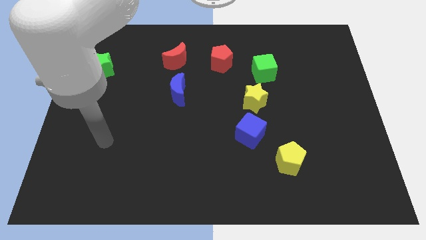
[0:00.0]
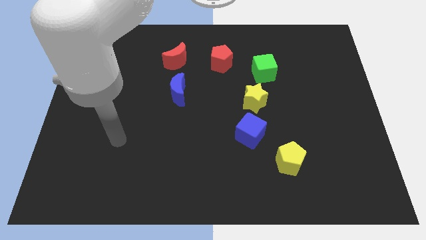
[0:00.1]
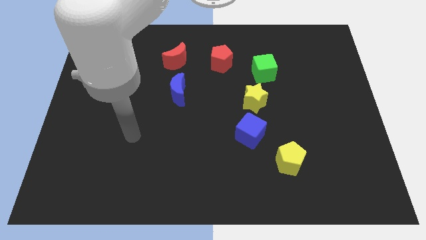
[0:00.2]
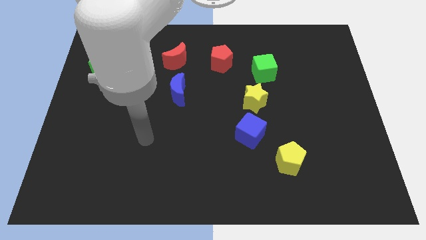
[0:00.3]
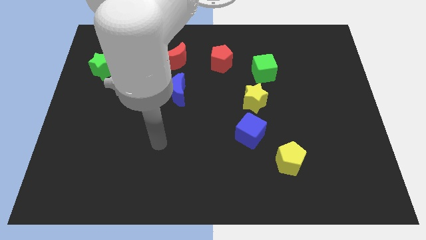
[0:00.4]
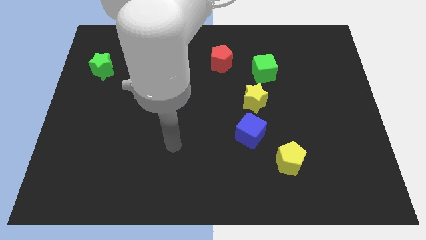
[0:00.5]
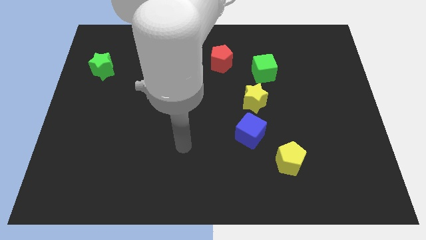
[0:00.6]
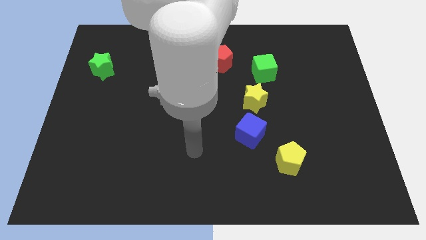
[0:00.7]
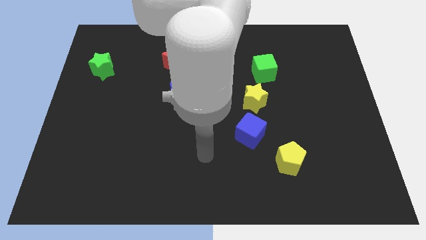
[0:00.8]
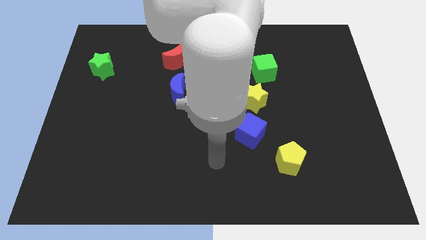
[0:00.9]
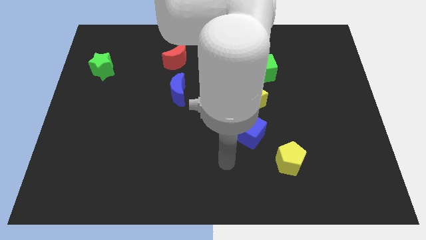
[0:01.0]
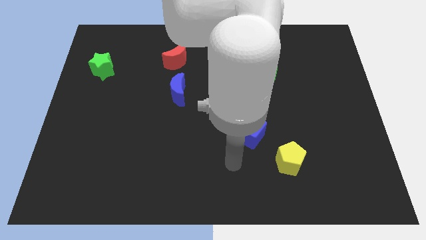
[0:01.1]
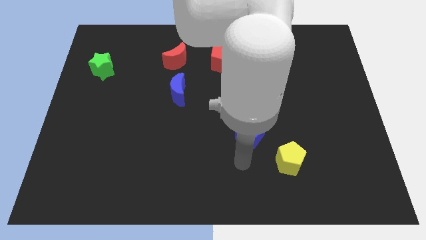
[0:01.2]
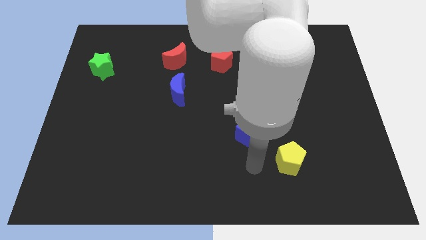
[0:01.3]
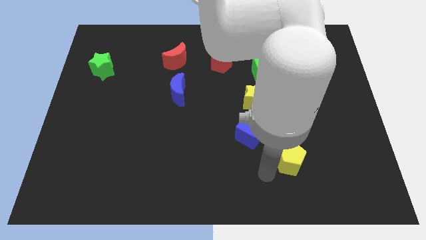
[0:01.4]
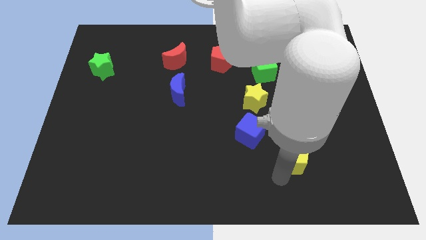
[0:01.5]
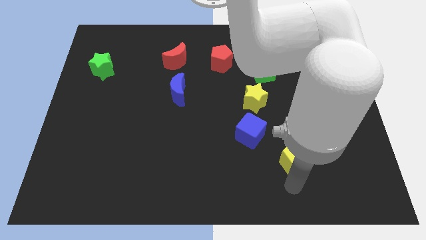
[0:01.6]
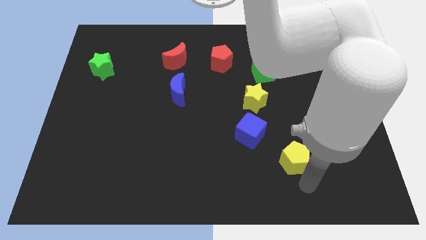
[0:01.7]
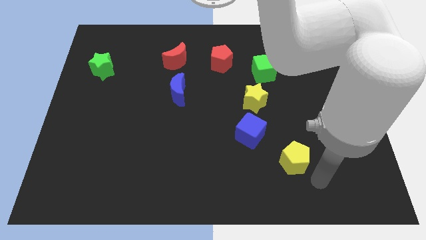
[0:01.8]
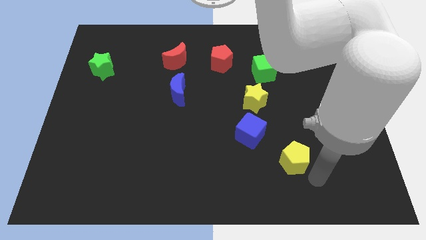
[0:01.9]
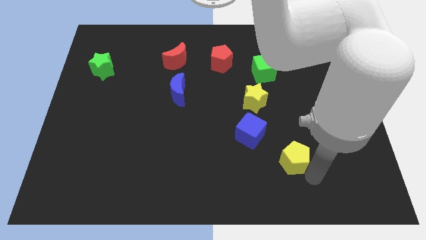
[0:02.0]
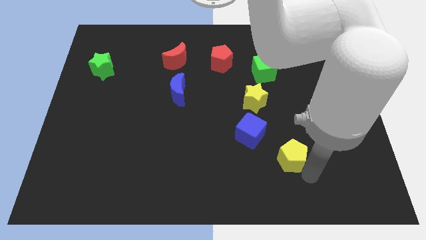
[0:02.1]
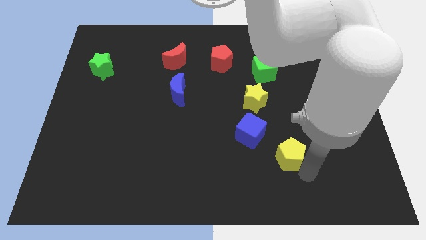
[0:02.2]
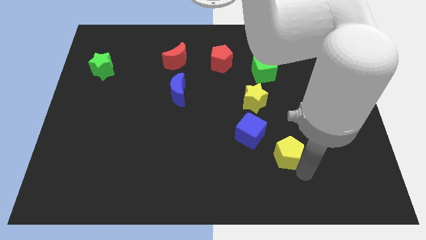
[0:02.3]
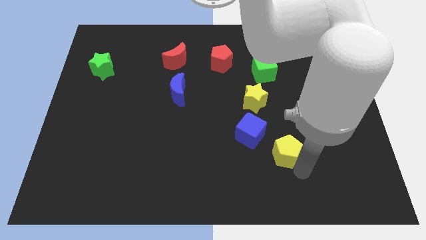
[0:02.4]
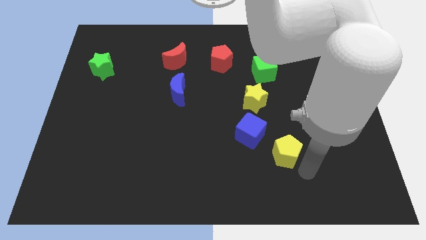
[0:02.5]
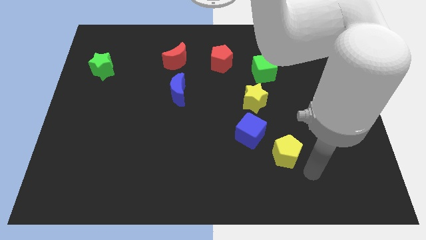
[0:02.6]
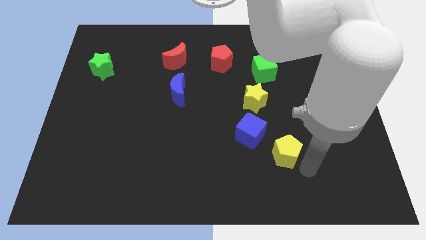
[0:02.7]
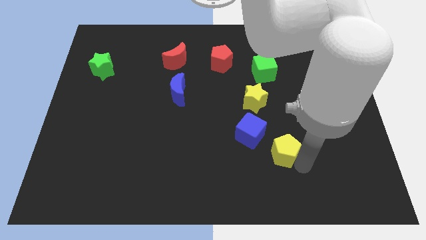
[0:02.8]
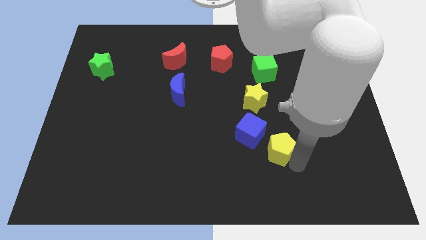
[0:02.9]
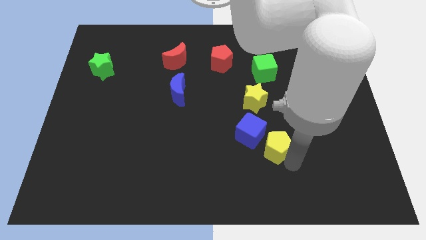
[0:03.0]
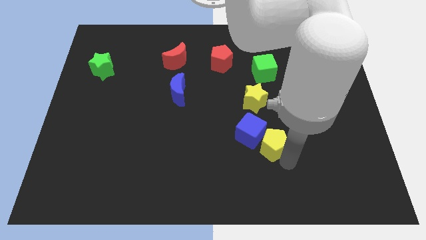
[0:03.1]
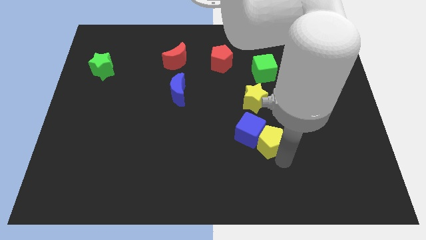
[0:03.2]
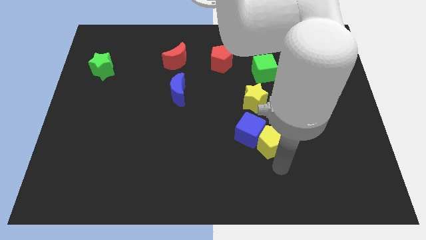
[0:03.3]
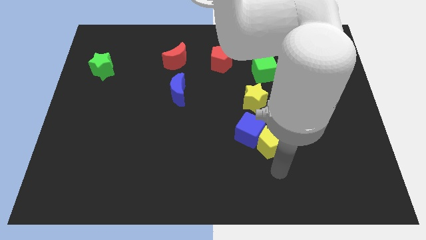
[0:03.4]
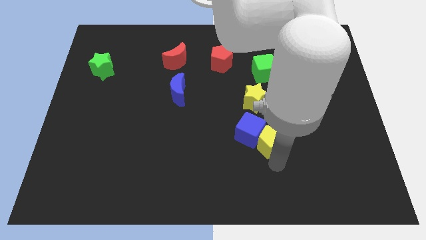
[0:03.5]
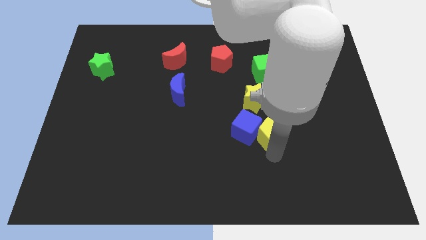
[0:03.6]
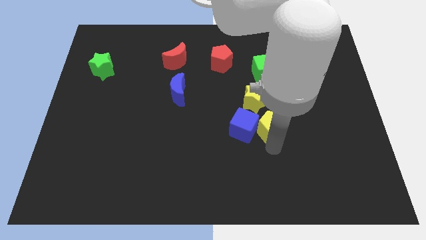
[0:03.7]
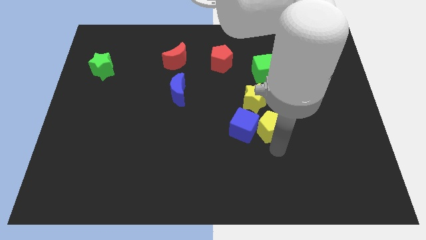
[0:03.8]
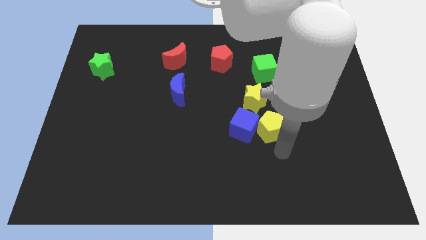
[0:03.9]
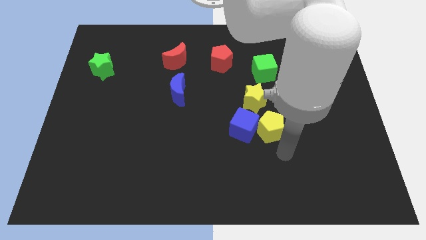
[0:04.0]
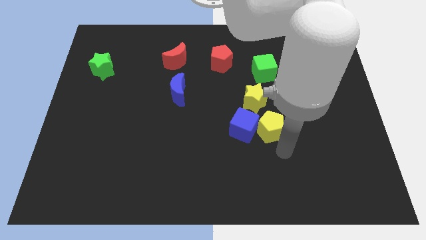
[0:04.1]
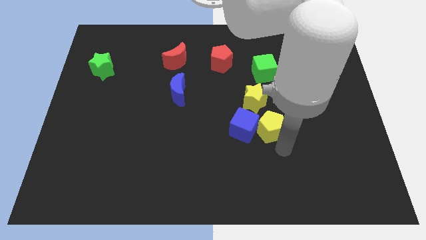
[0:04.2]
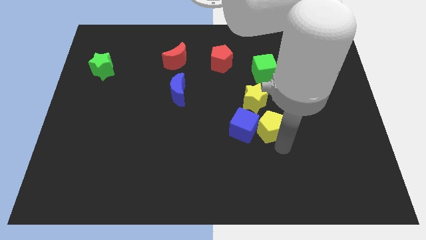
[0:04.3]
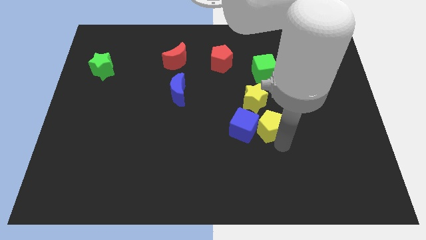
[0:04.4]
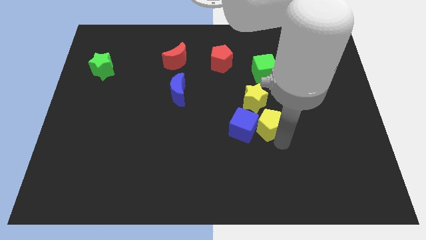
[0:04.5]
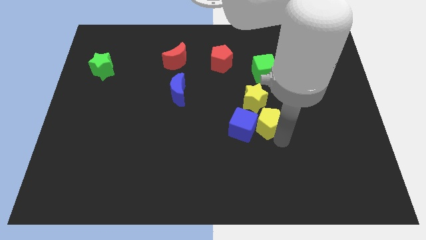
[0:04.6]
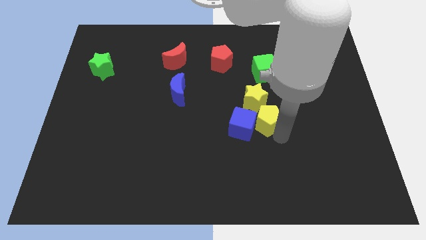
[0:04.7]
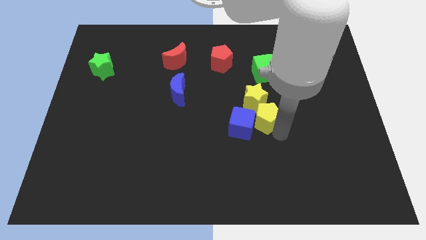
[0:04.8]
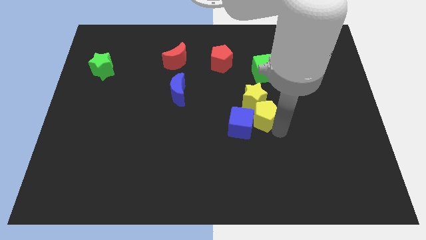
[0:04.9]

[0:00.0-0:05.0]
put the yellow pentagon close to the yellow star

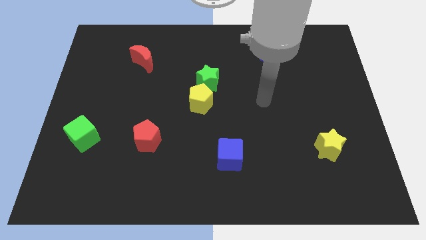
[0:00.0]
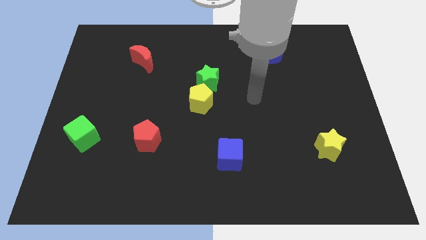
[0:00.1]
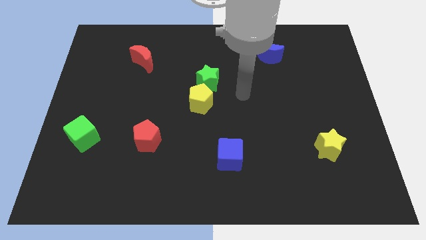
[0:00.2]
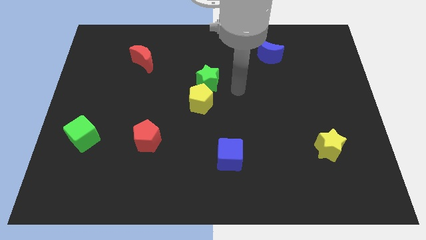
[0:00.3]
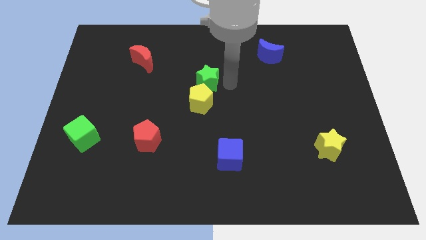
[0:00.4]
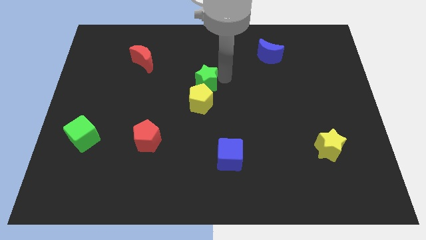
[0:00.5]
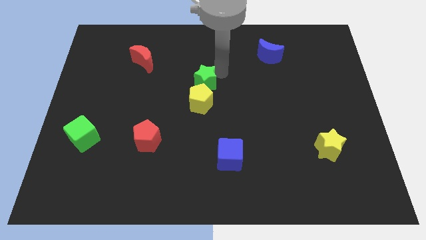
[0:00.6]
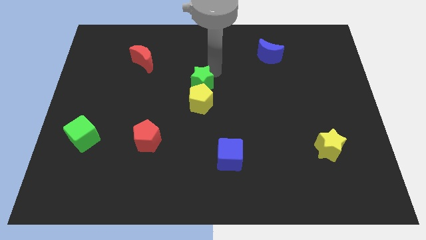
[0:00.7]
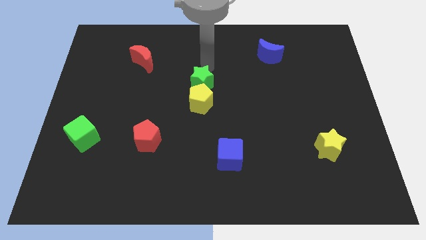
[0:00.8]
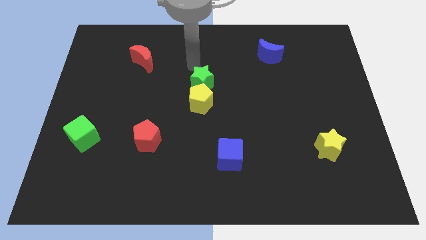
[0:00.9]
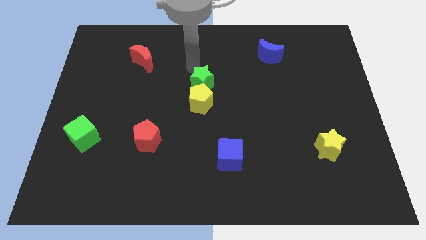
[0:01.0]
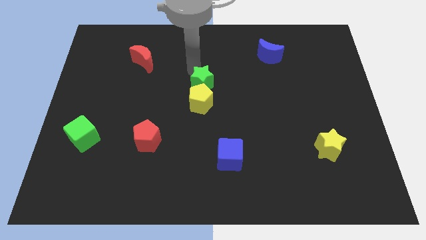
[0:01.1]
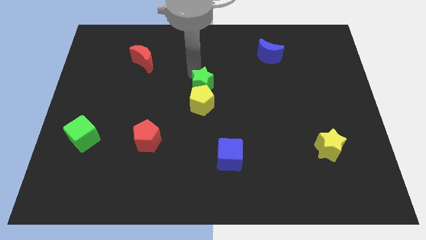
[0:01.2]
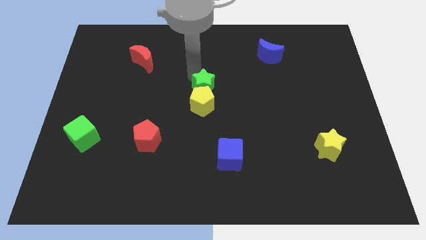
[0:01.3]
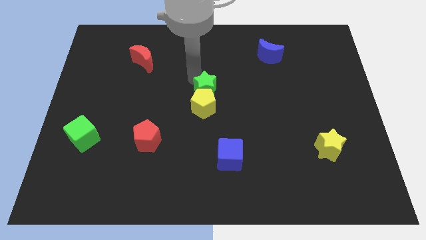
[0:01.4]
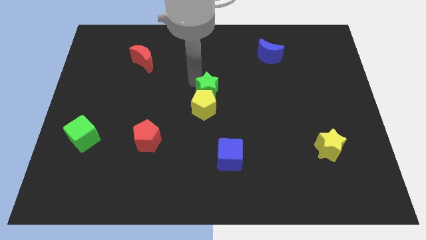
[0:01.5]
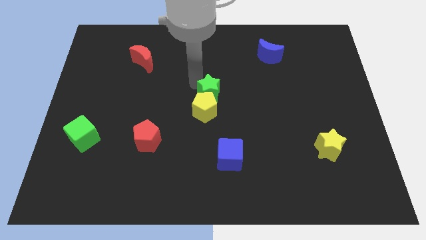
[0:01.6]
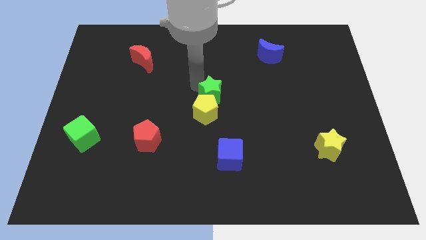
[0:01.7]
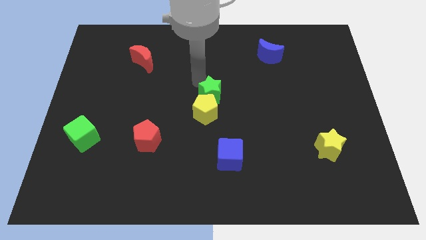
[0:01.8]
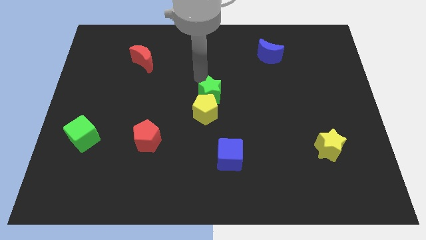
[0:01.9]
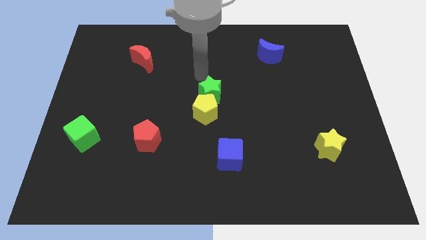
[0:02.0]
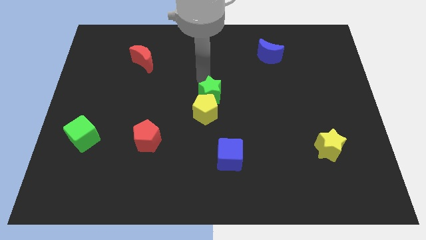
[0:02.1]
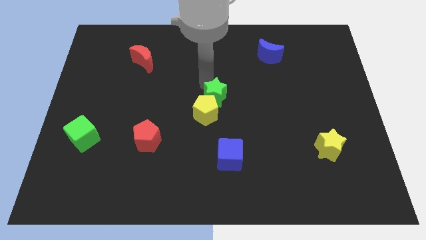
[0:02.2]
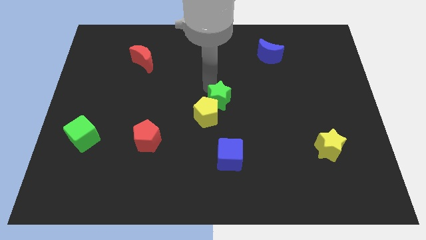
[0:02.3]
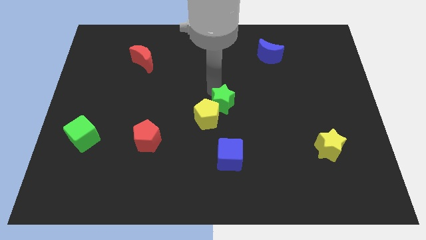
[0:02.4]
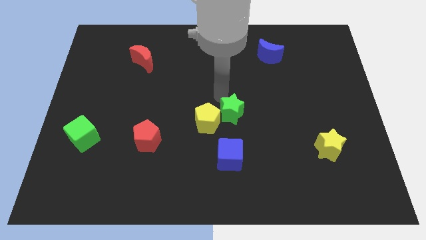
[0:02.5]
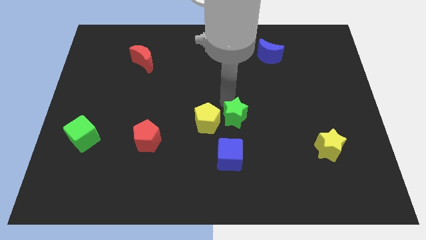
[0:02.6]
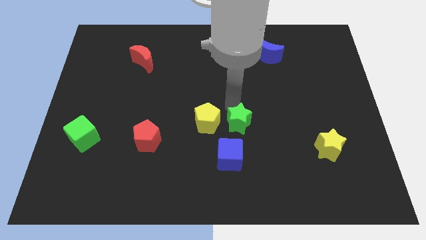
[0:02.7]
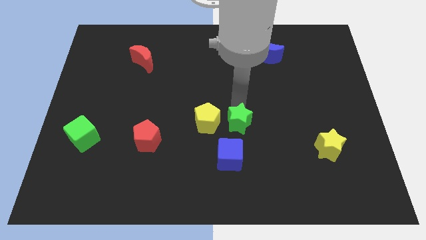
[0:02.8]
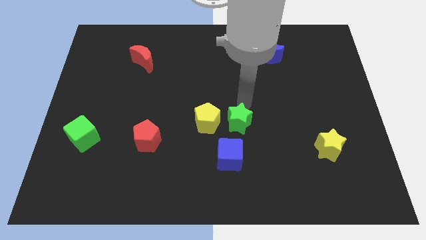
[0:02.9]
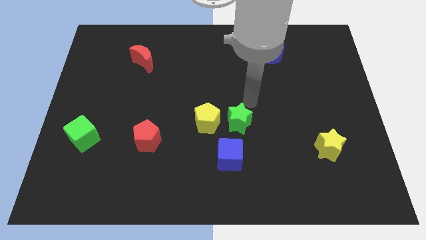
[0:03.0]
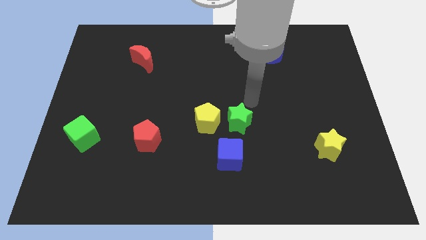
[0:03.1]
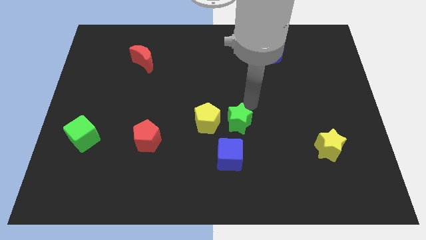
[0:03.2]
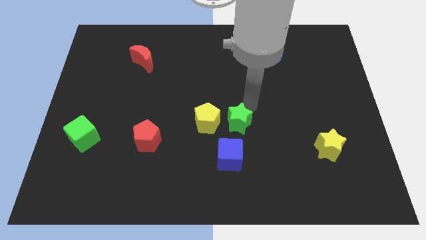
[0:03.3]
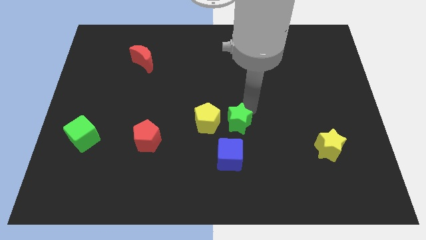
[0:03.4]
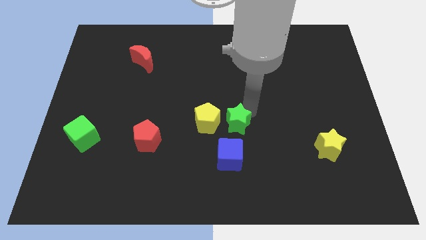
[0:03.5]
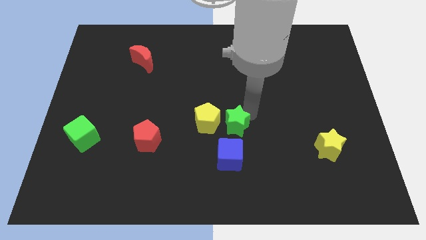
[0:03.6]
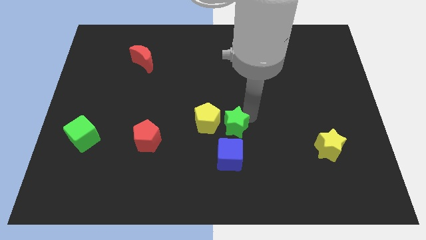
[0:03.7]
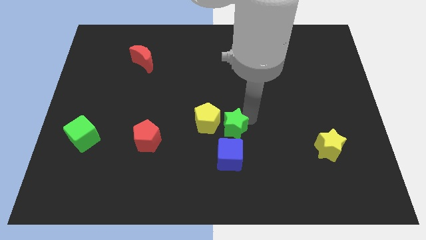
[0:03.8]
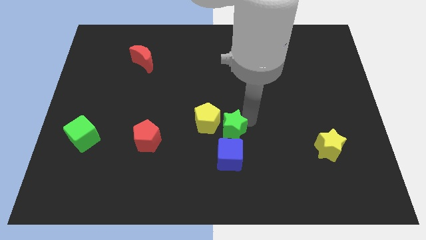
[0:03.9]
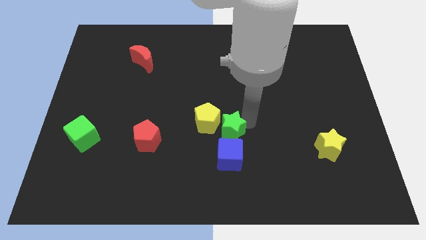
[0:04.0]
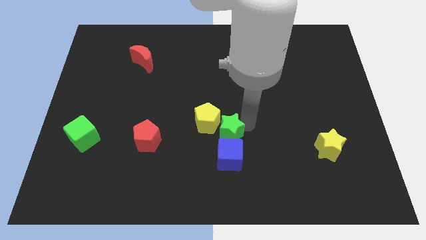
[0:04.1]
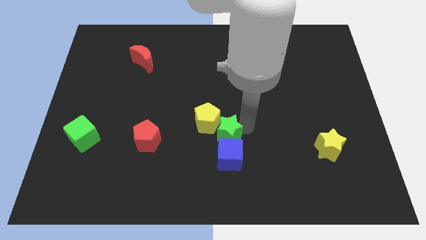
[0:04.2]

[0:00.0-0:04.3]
slide the green star next to the blue cube
